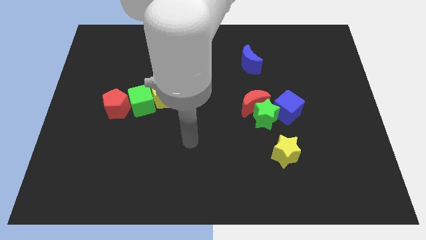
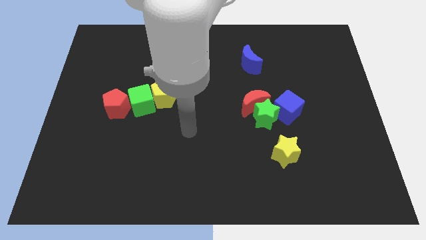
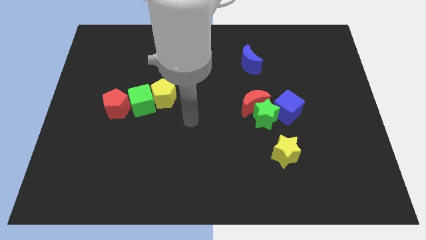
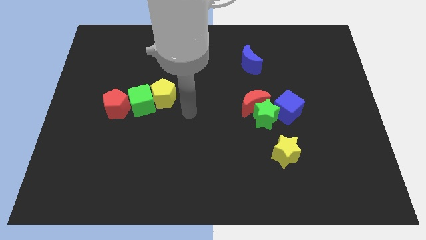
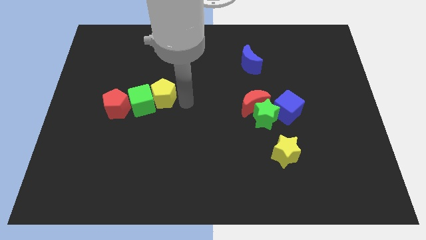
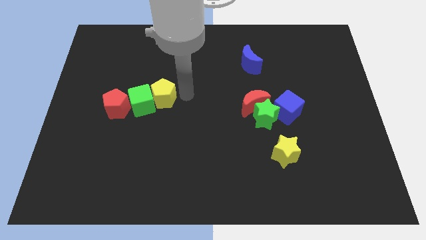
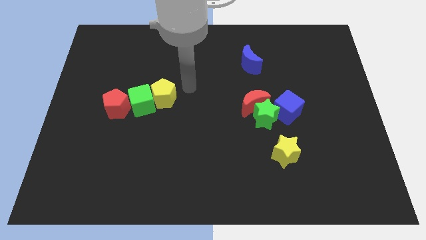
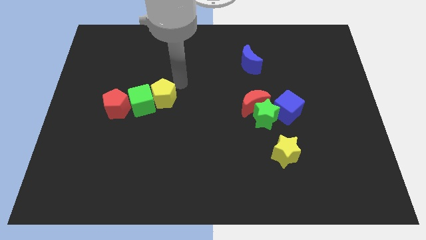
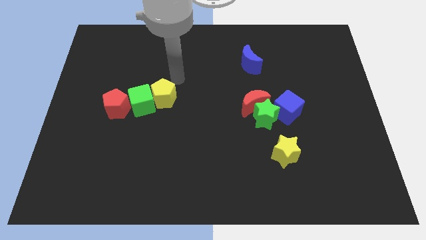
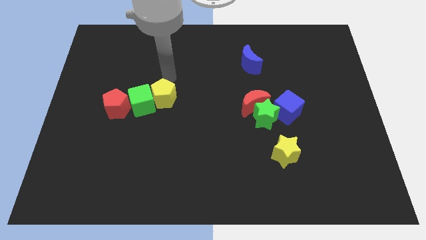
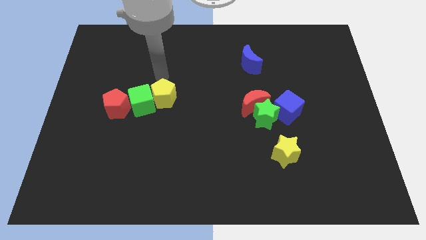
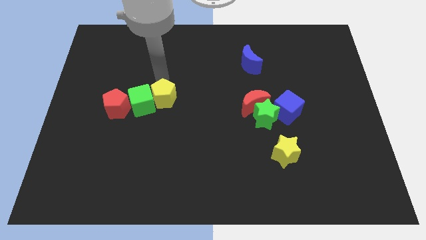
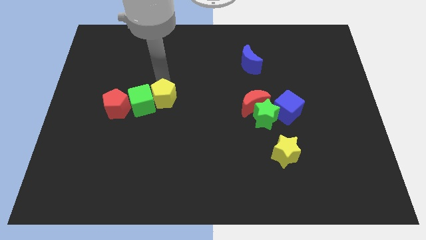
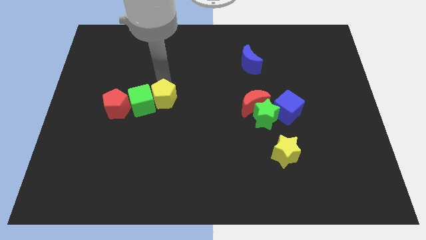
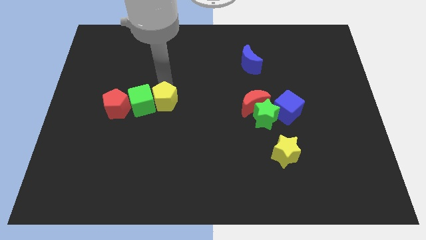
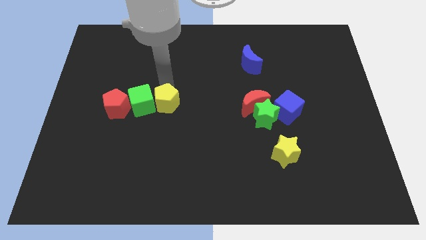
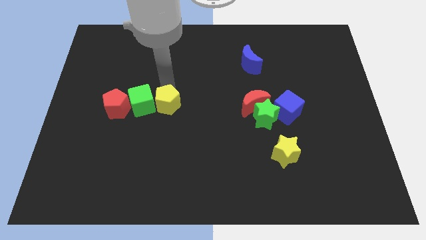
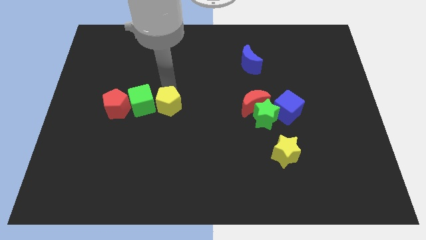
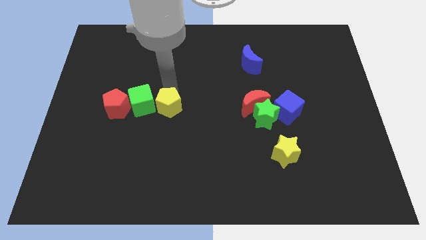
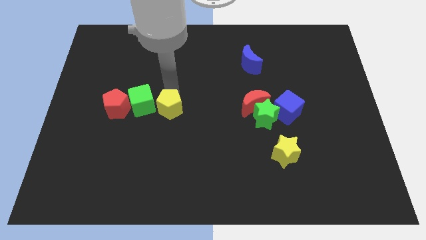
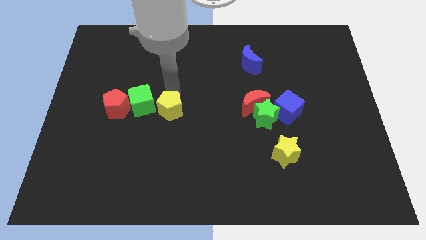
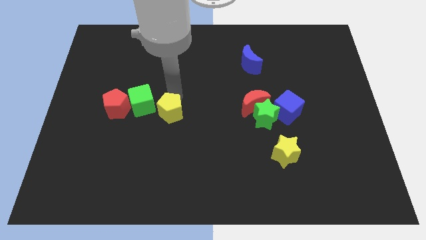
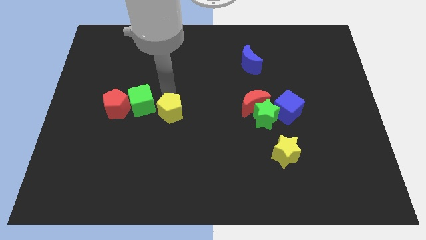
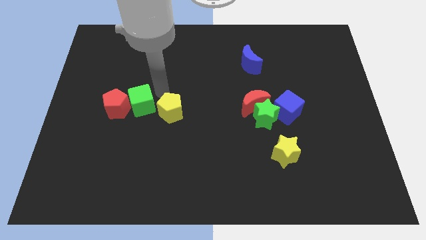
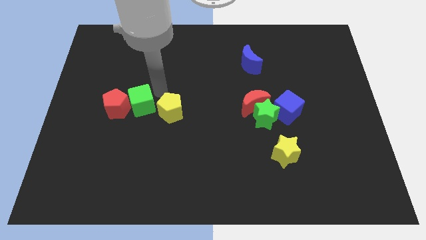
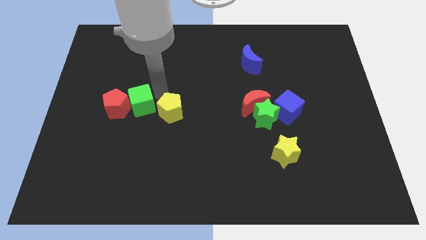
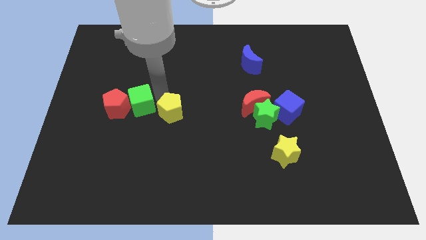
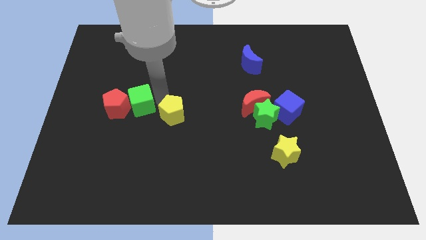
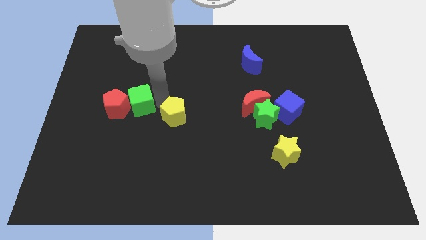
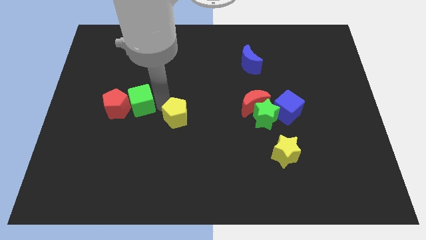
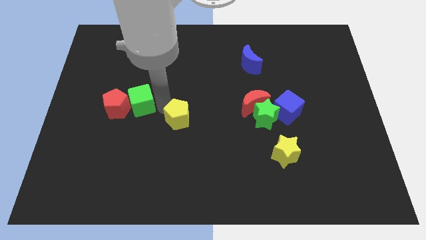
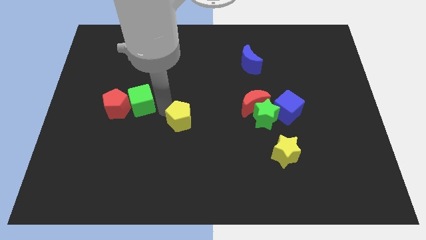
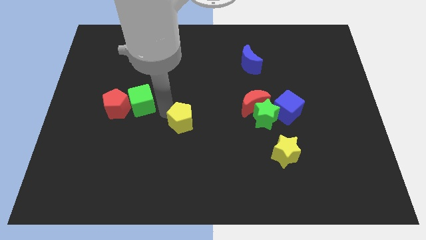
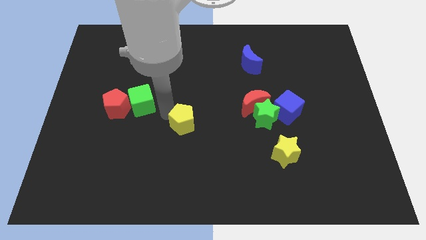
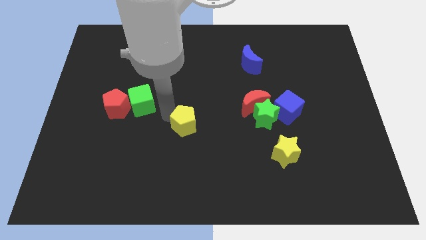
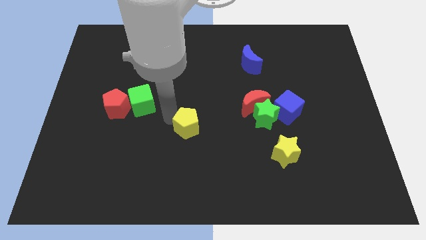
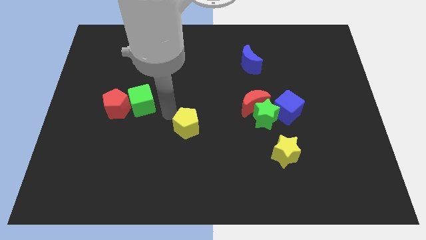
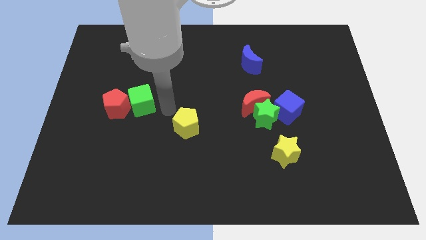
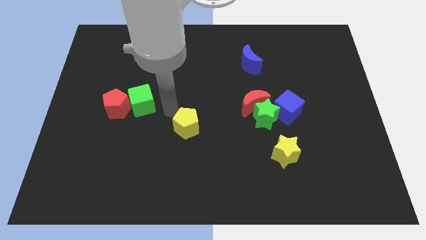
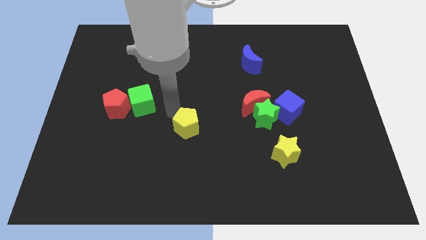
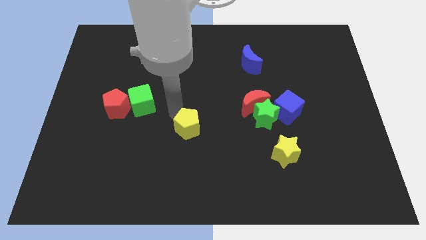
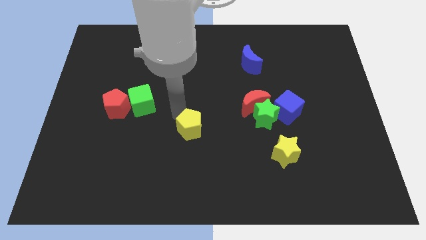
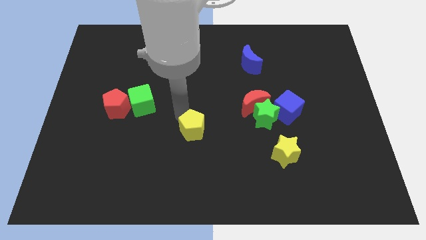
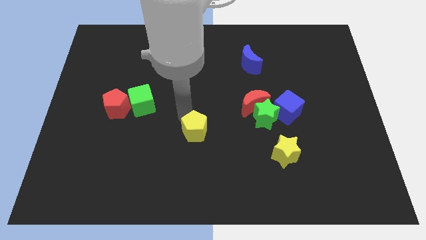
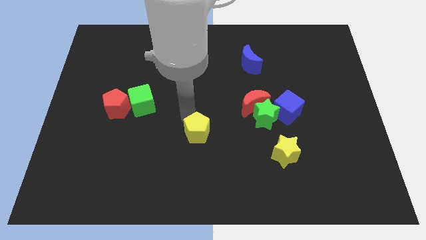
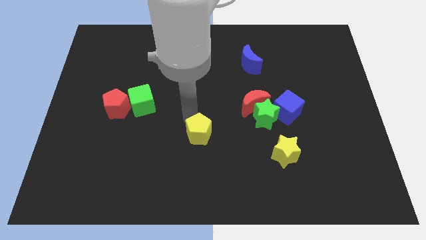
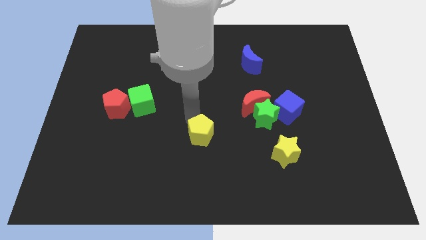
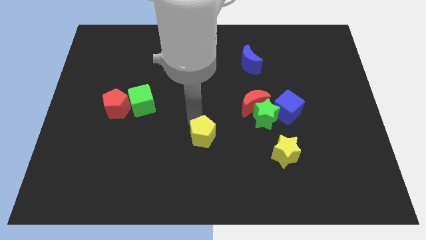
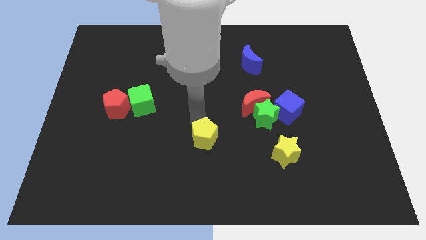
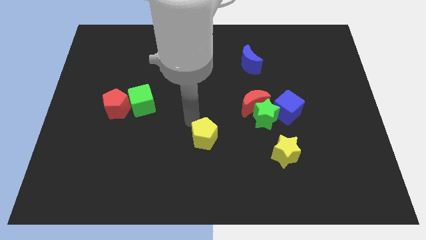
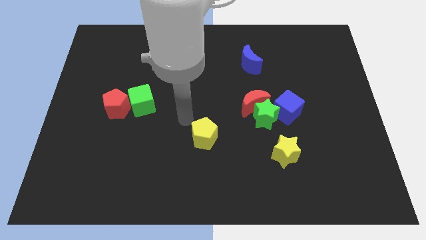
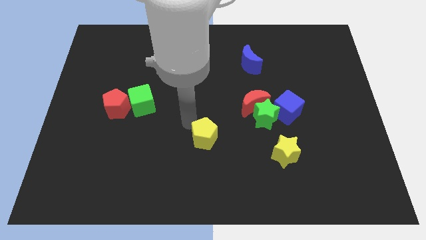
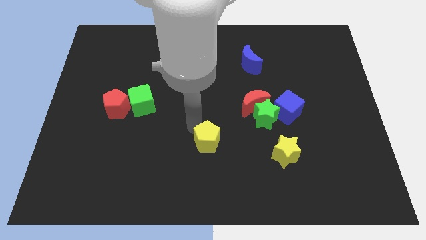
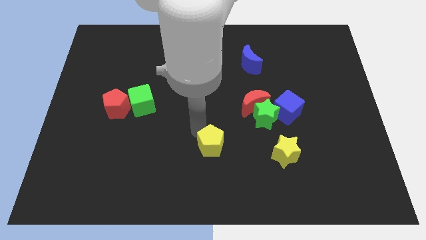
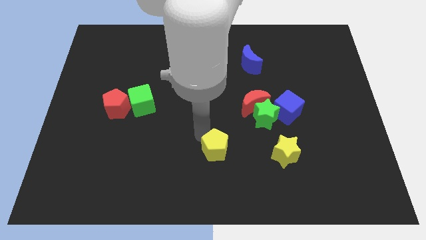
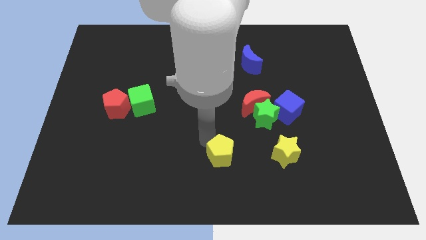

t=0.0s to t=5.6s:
move the yellow pentagon diagonally downwards and to the right

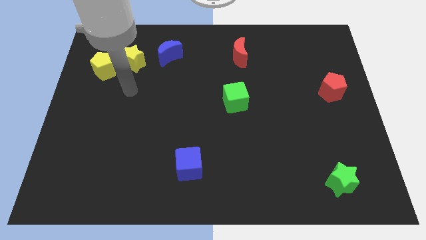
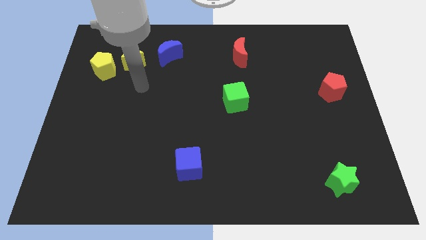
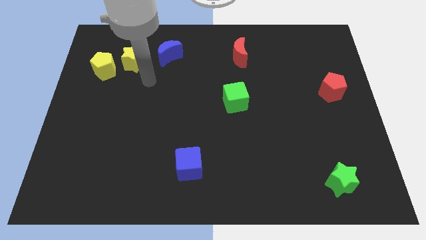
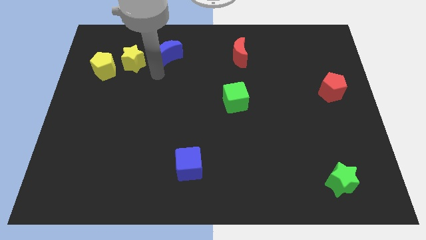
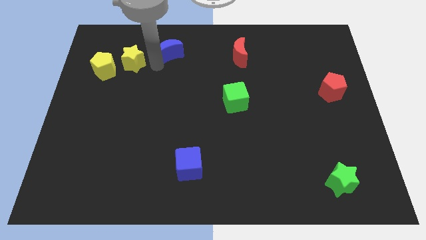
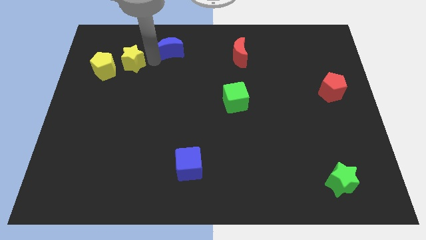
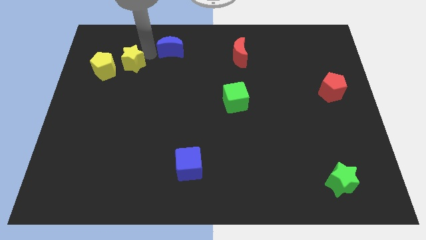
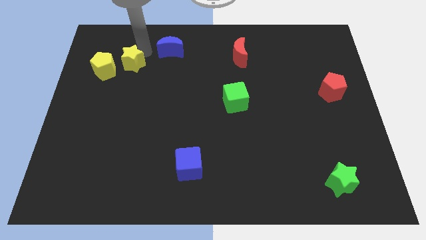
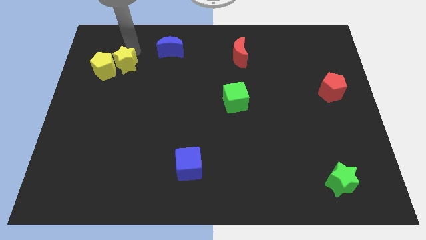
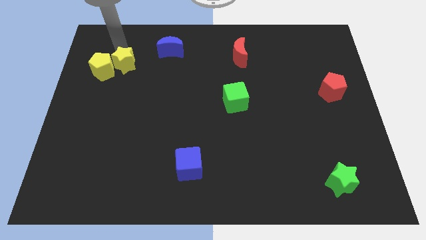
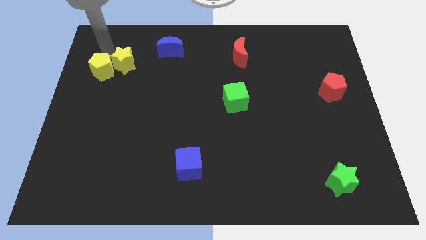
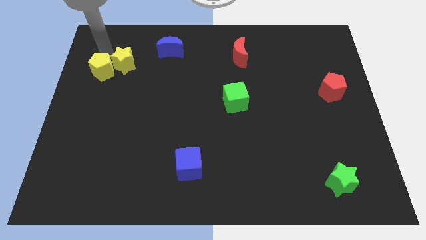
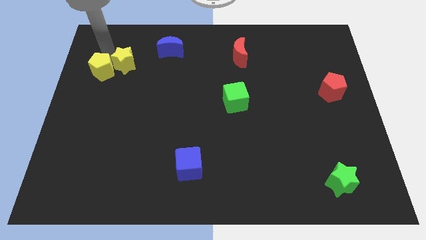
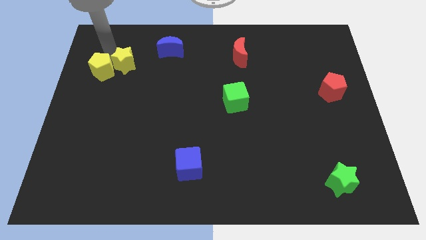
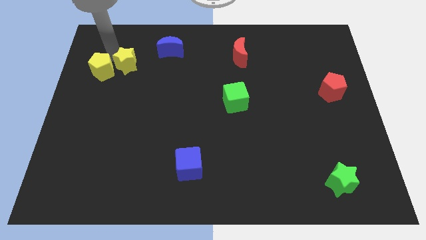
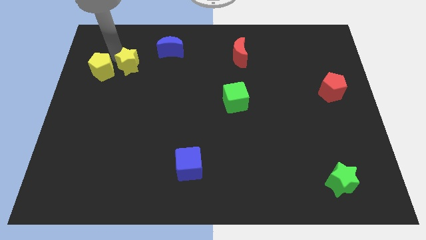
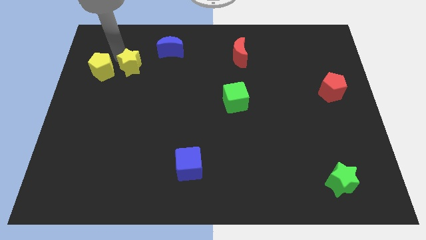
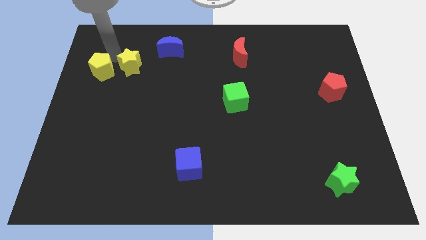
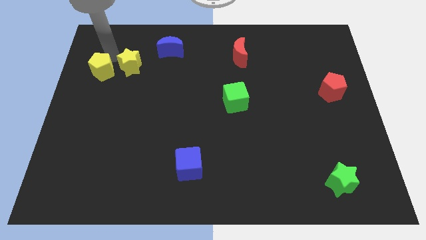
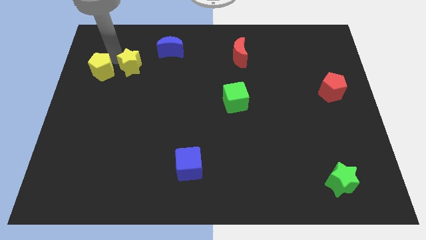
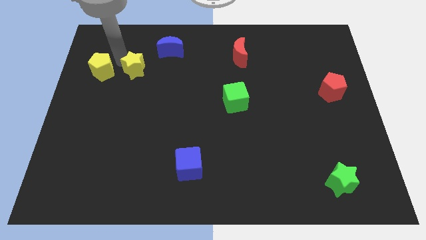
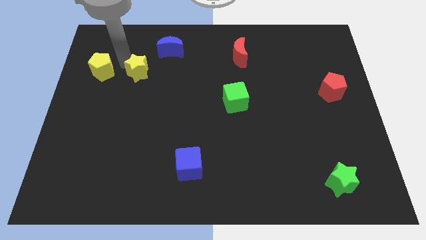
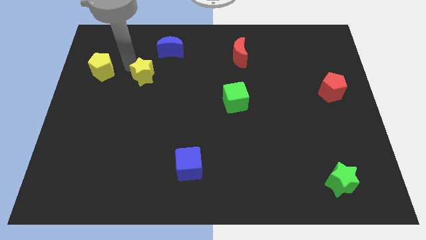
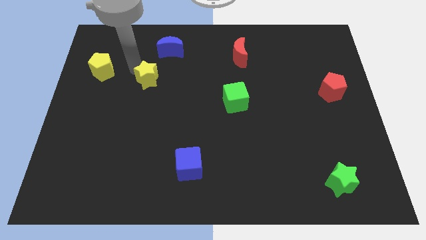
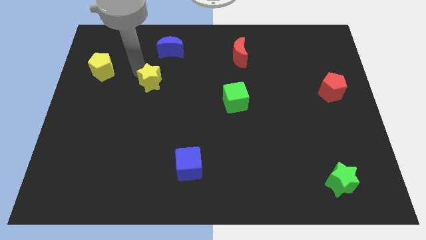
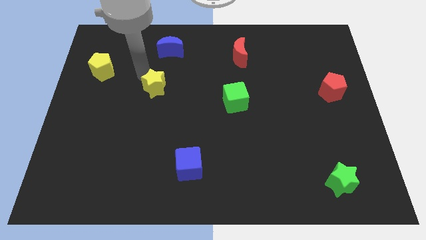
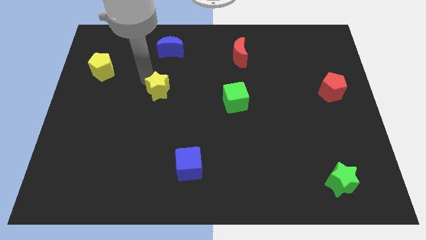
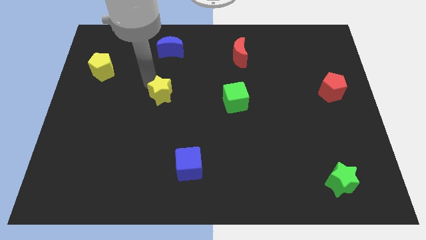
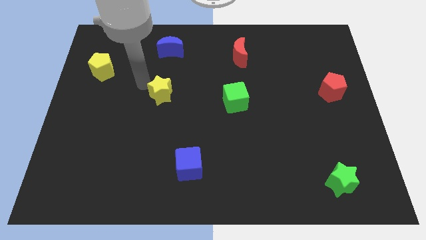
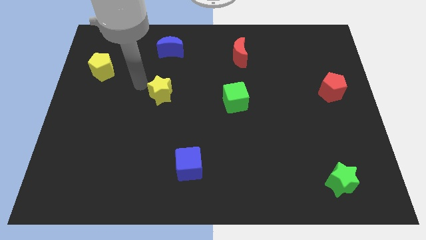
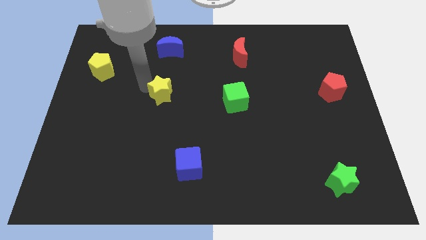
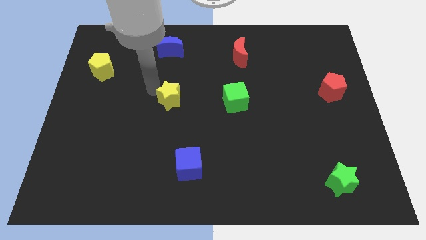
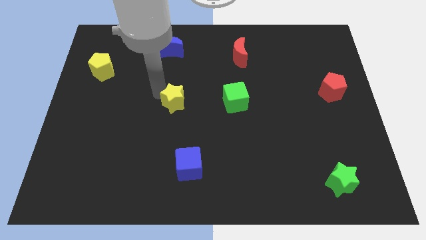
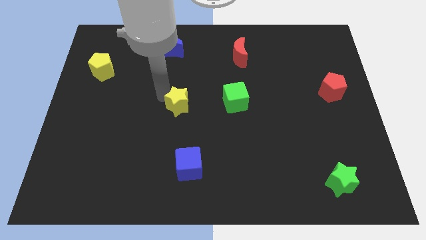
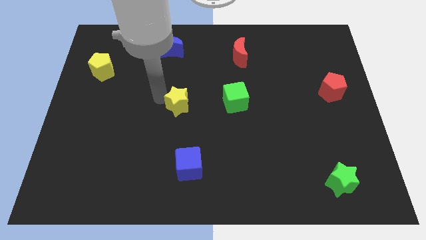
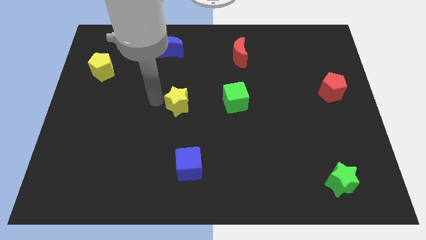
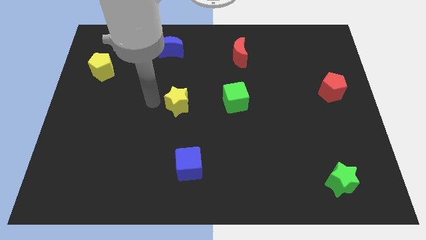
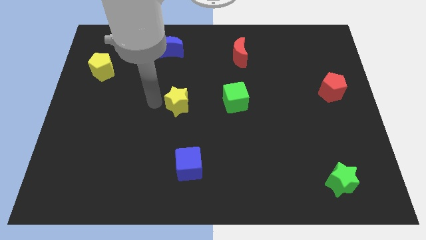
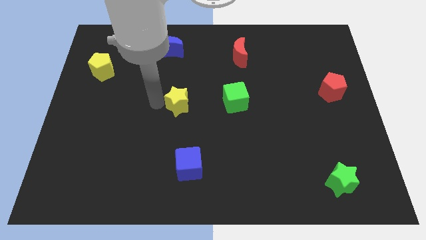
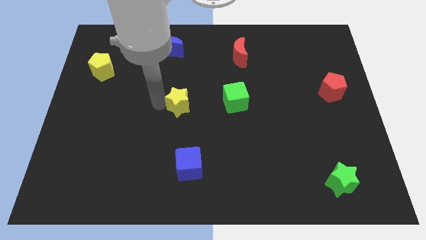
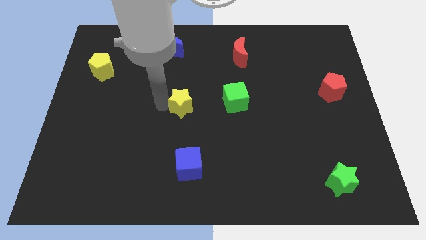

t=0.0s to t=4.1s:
slide the yellow star down and right
